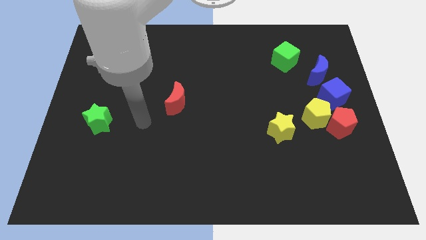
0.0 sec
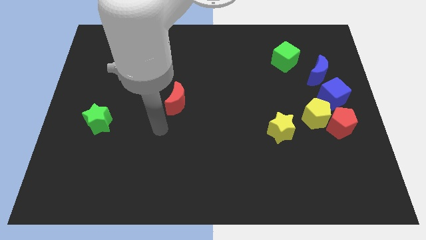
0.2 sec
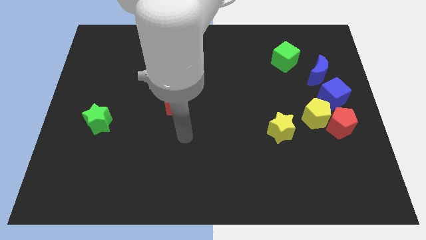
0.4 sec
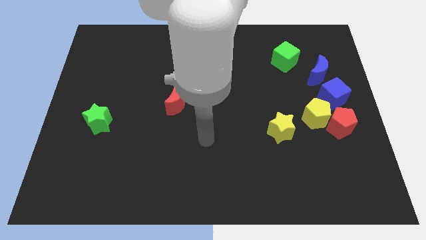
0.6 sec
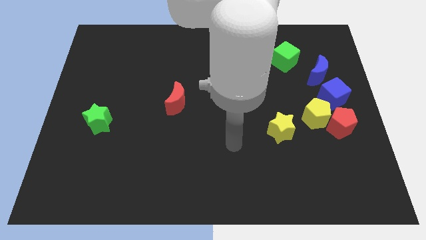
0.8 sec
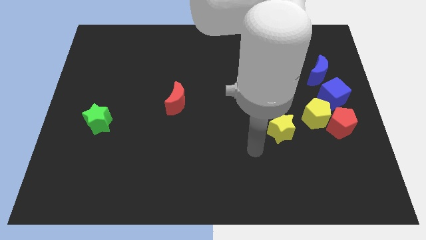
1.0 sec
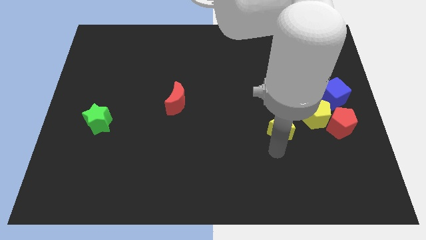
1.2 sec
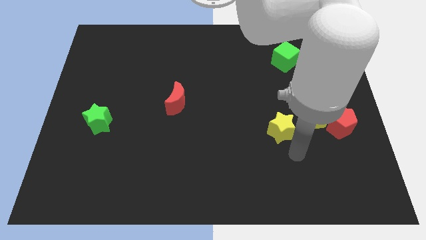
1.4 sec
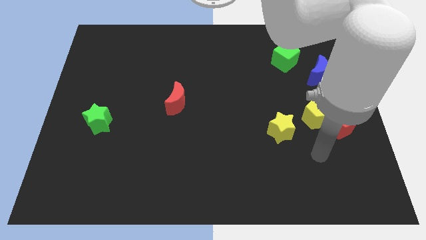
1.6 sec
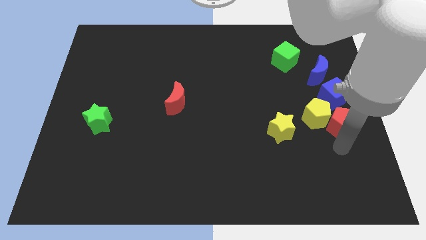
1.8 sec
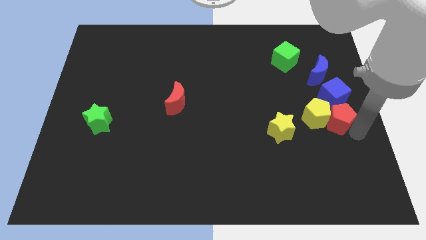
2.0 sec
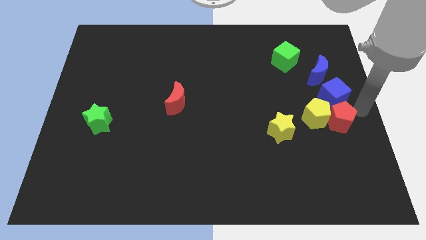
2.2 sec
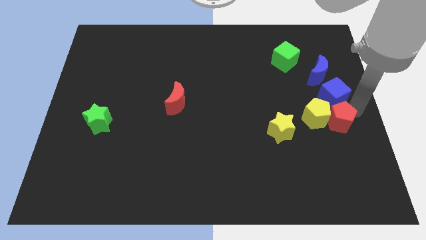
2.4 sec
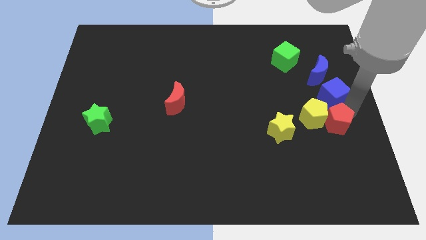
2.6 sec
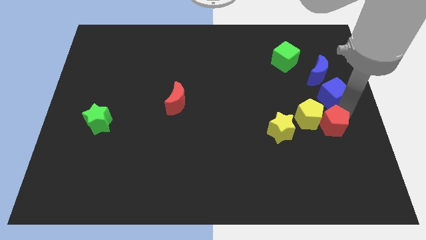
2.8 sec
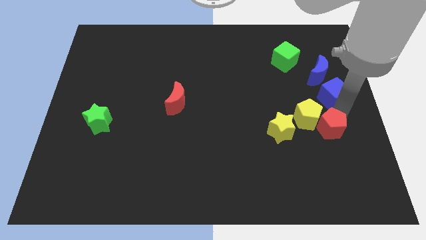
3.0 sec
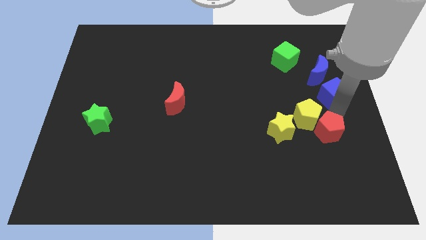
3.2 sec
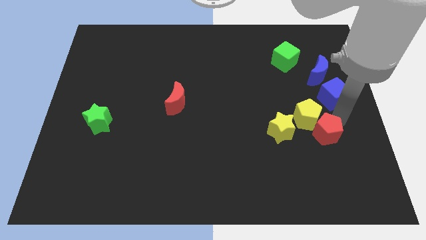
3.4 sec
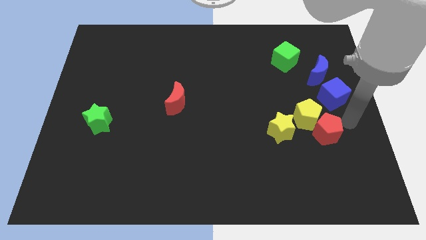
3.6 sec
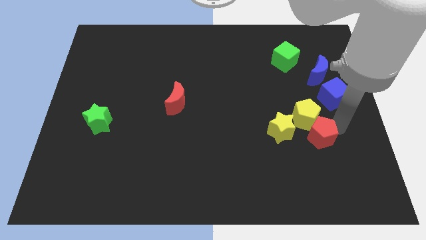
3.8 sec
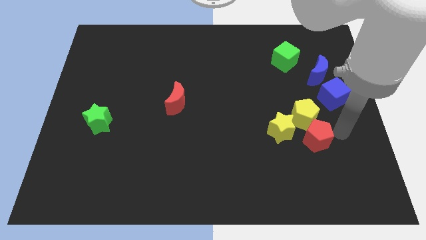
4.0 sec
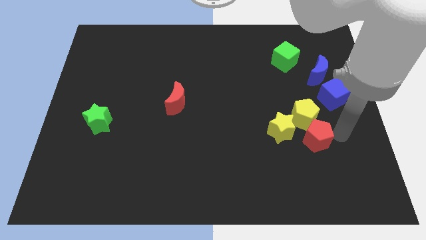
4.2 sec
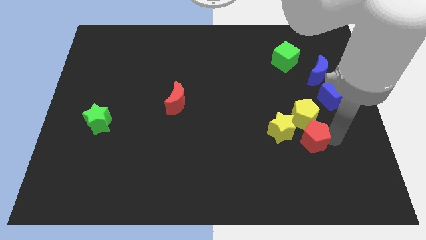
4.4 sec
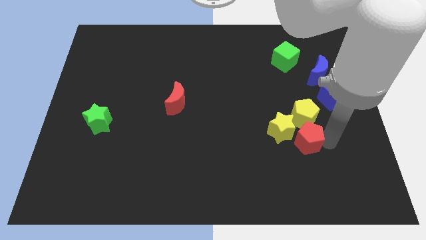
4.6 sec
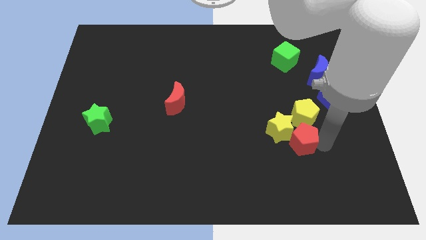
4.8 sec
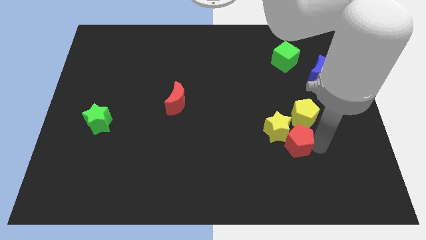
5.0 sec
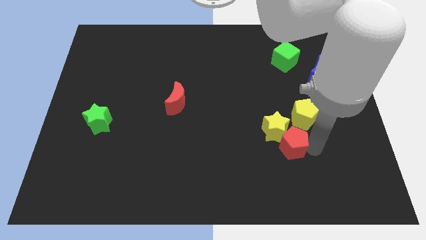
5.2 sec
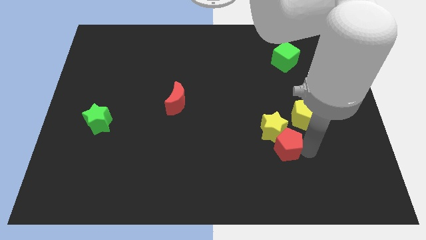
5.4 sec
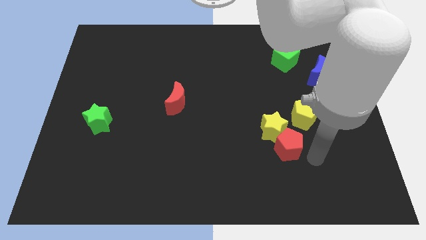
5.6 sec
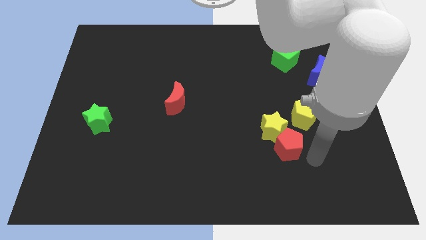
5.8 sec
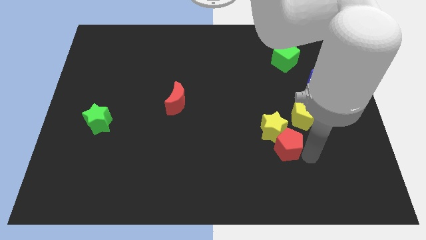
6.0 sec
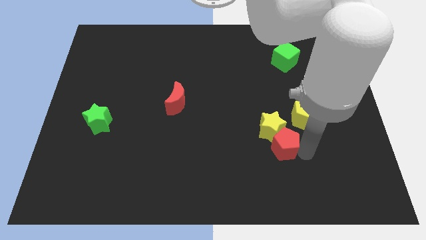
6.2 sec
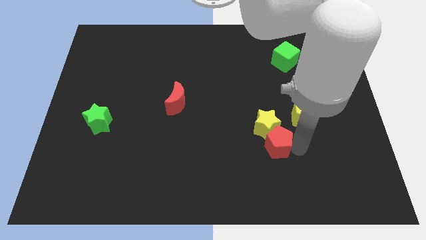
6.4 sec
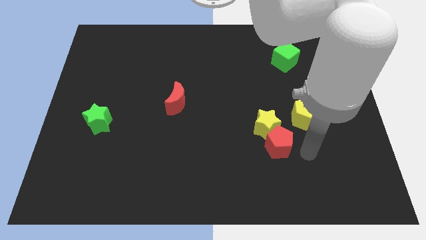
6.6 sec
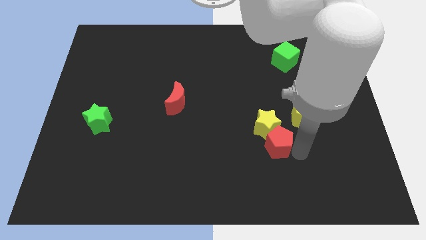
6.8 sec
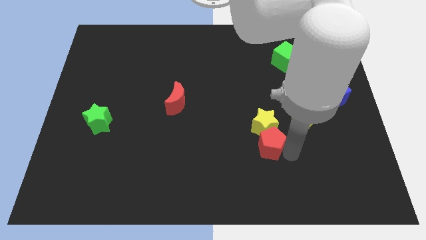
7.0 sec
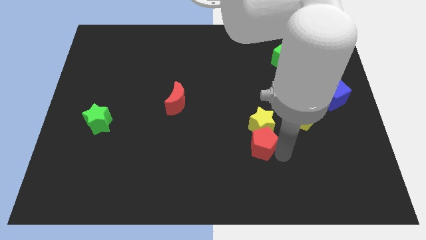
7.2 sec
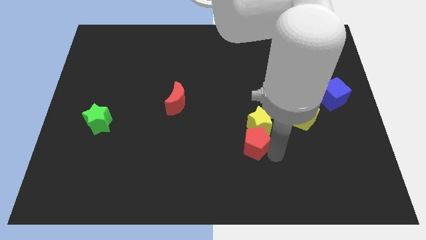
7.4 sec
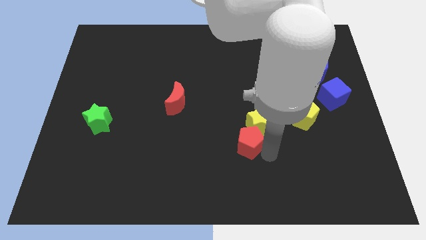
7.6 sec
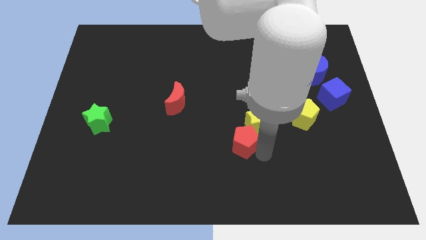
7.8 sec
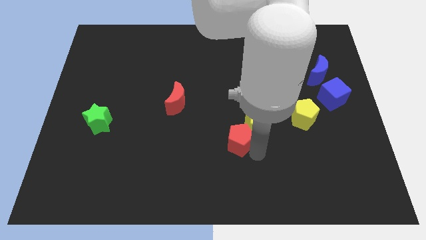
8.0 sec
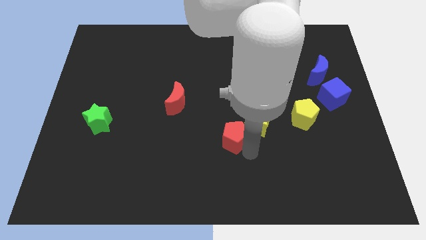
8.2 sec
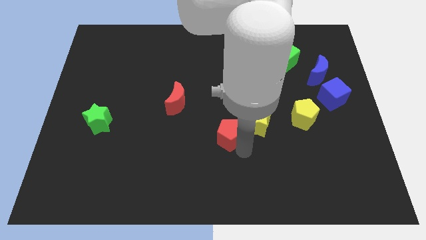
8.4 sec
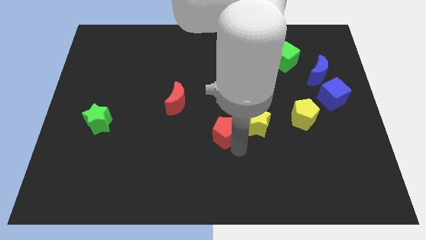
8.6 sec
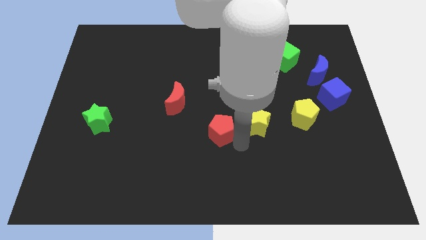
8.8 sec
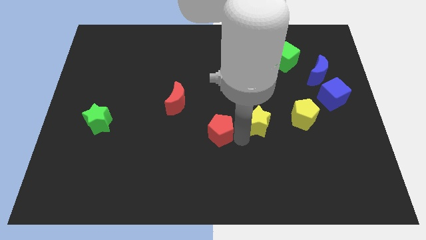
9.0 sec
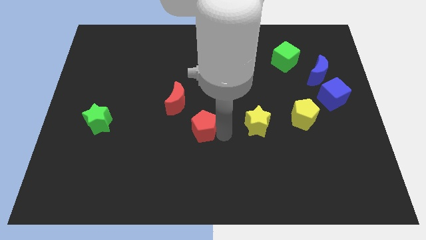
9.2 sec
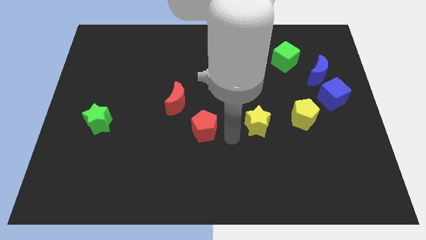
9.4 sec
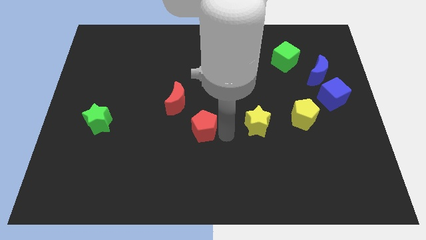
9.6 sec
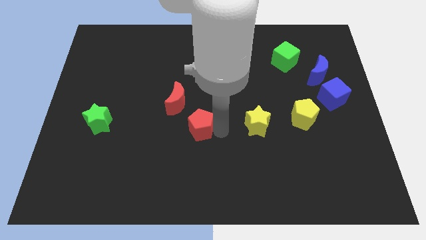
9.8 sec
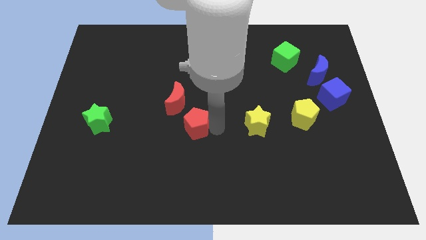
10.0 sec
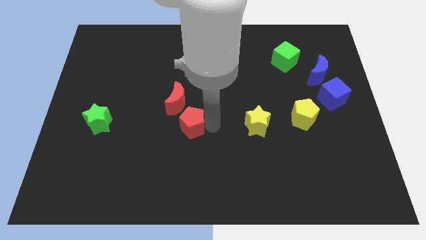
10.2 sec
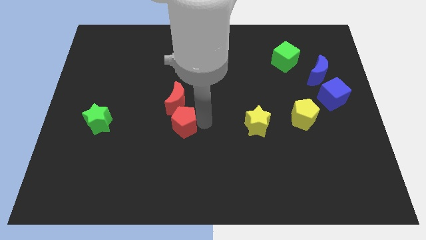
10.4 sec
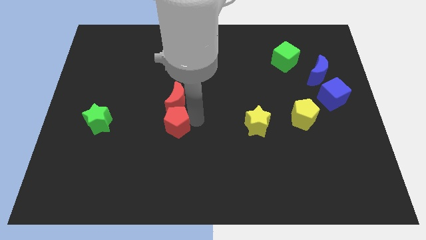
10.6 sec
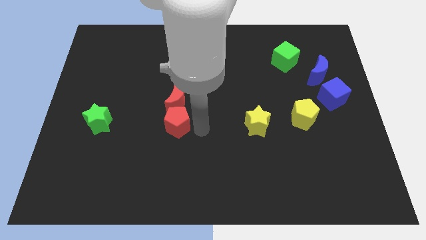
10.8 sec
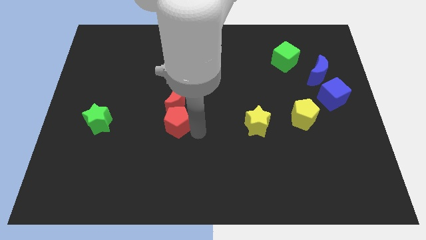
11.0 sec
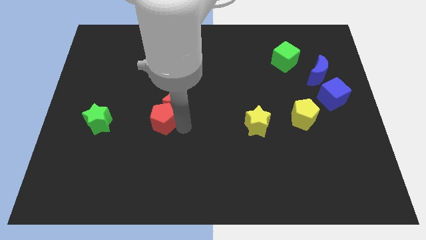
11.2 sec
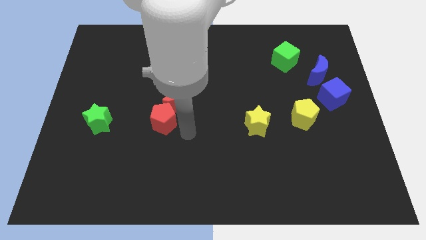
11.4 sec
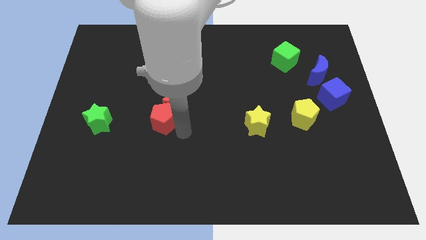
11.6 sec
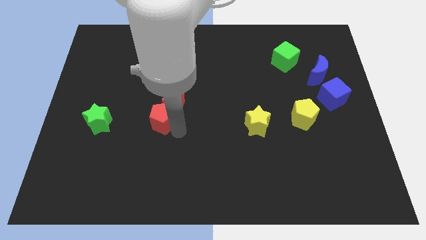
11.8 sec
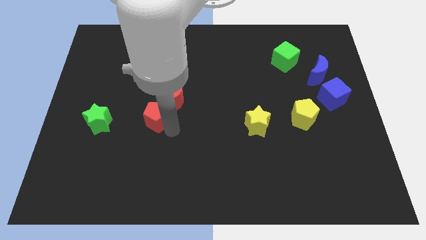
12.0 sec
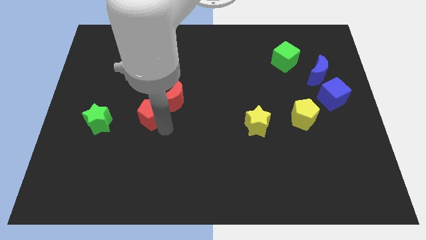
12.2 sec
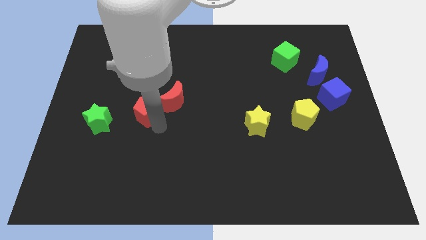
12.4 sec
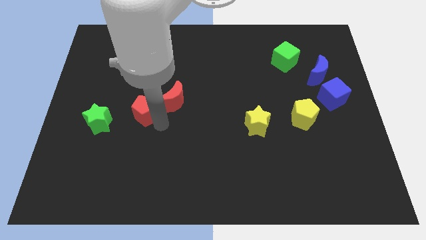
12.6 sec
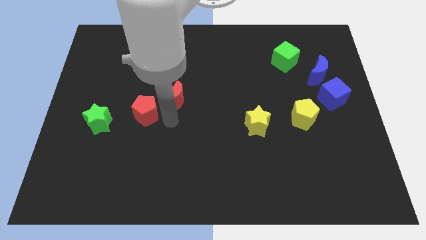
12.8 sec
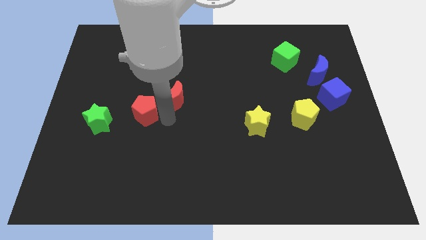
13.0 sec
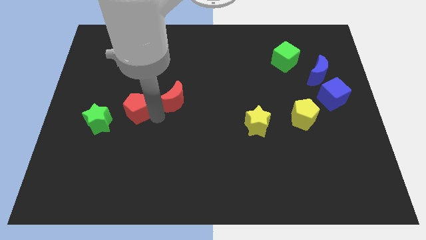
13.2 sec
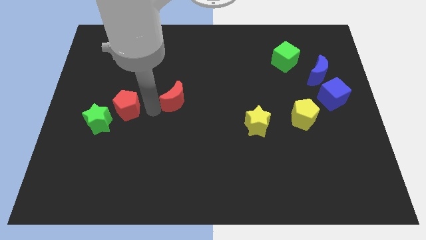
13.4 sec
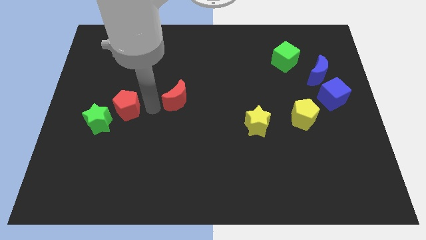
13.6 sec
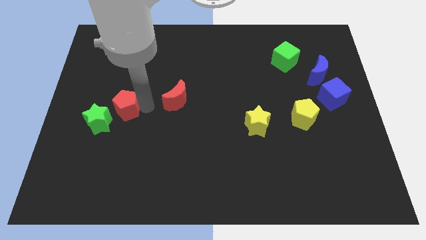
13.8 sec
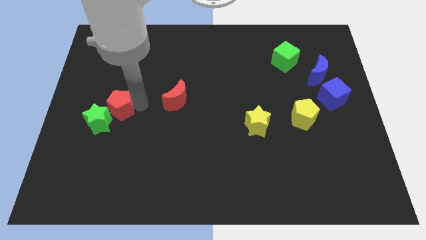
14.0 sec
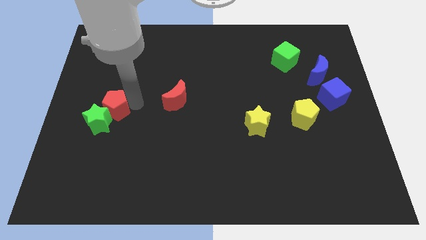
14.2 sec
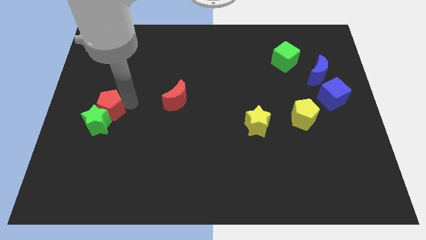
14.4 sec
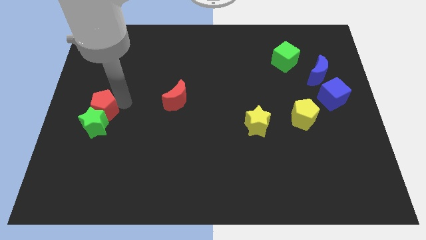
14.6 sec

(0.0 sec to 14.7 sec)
slide the red pentagon to the left side of the board
